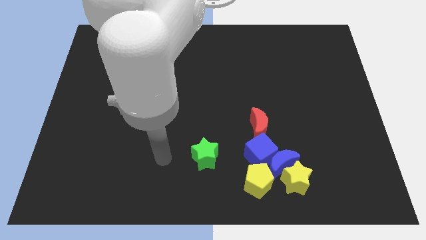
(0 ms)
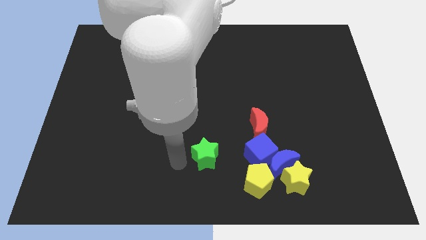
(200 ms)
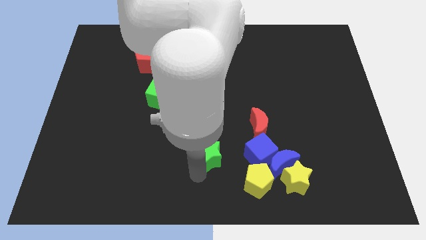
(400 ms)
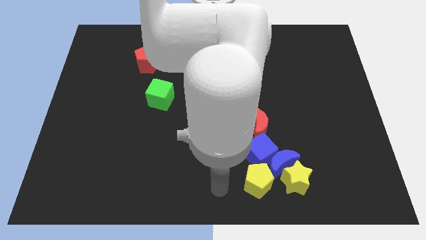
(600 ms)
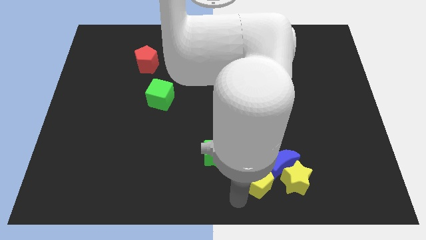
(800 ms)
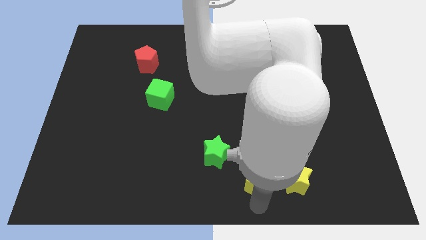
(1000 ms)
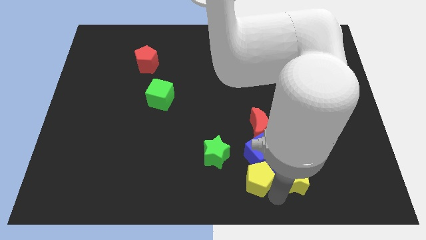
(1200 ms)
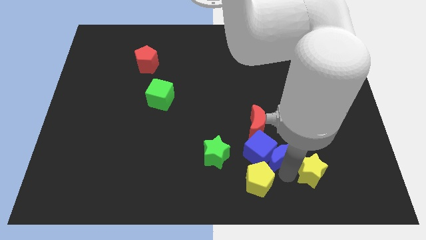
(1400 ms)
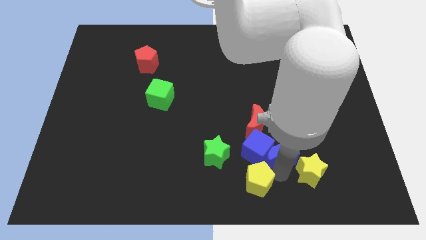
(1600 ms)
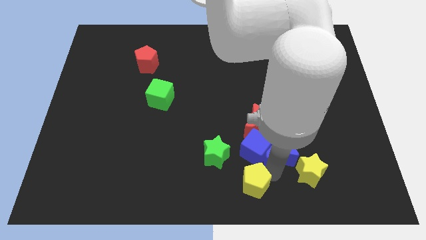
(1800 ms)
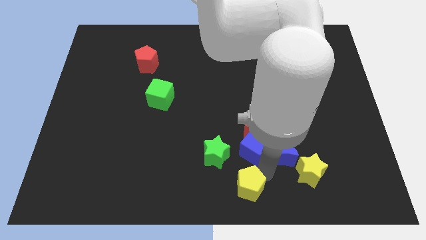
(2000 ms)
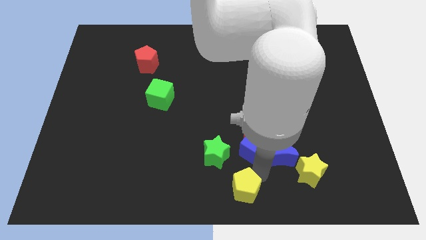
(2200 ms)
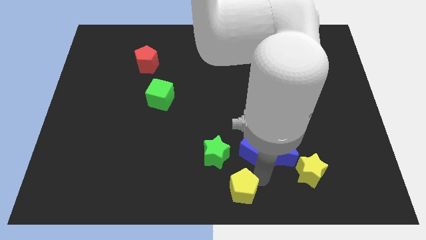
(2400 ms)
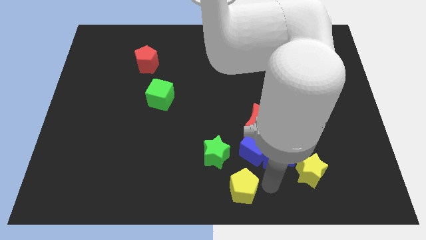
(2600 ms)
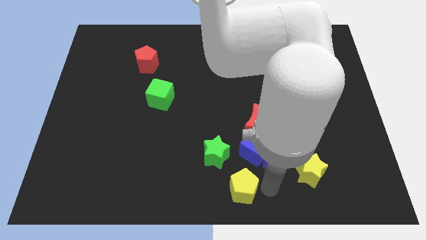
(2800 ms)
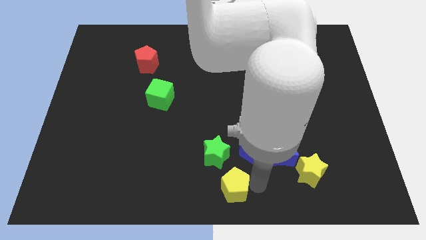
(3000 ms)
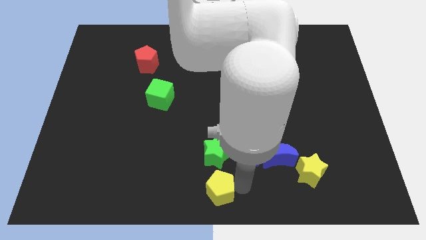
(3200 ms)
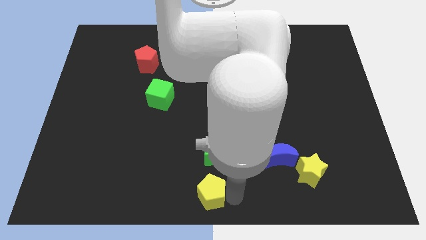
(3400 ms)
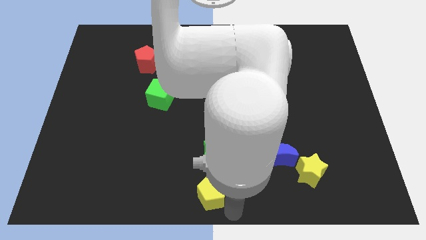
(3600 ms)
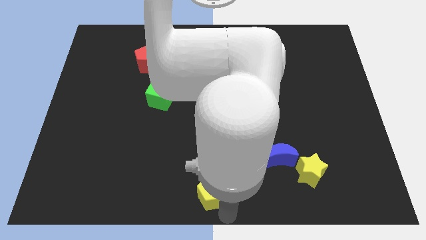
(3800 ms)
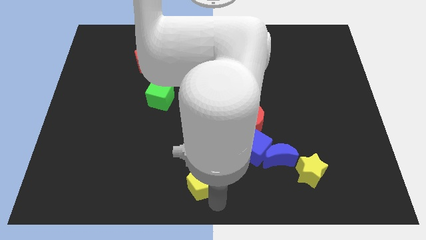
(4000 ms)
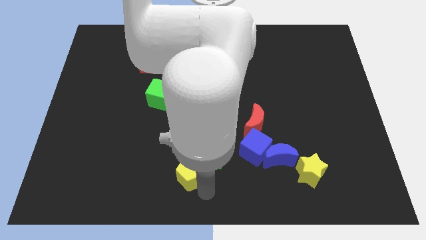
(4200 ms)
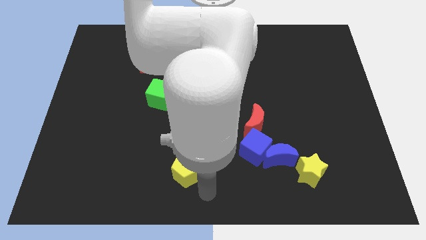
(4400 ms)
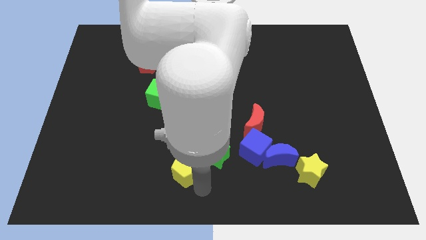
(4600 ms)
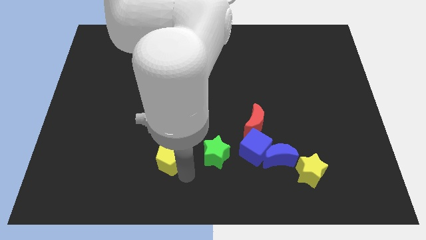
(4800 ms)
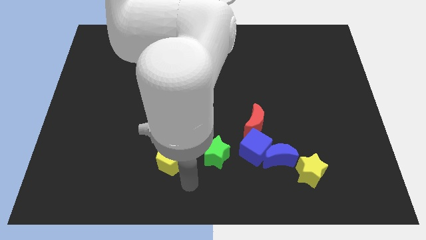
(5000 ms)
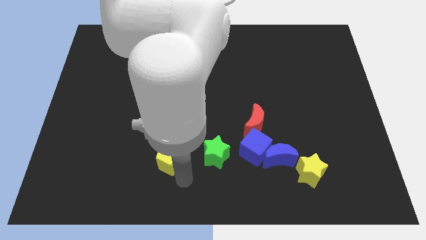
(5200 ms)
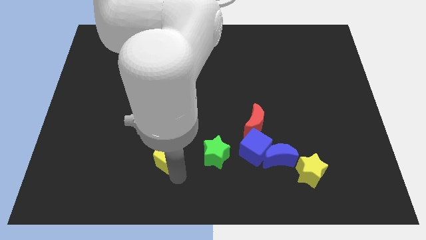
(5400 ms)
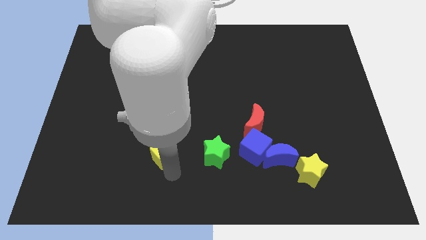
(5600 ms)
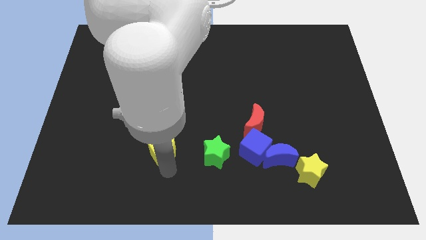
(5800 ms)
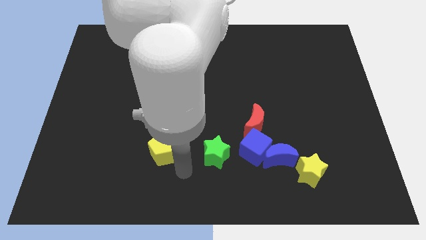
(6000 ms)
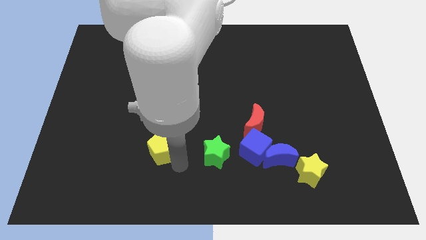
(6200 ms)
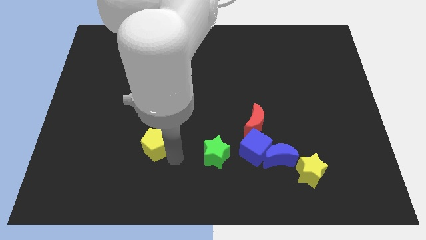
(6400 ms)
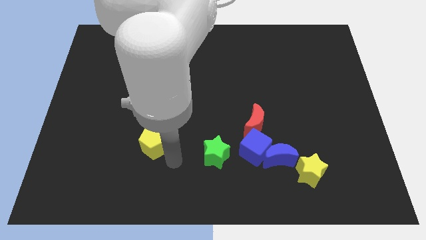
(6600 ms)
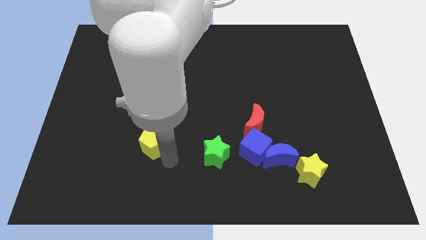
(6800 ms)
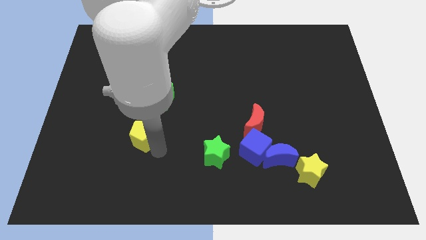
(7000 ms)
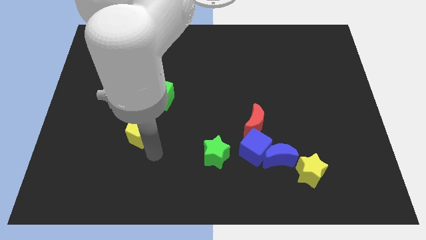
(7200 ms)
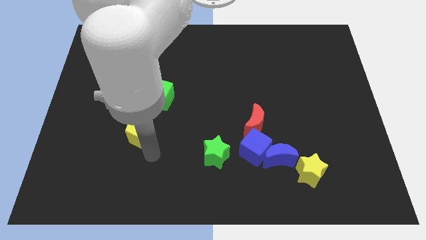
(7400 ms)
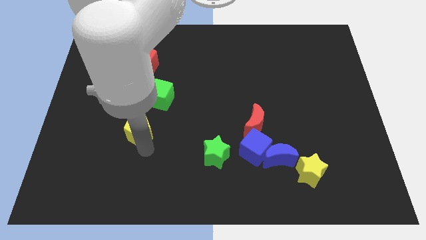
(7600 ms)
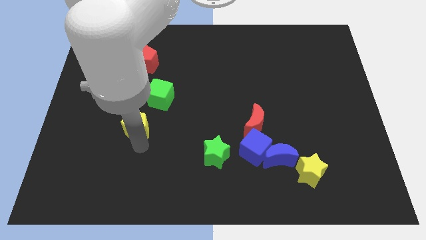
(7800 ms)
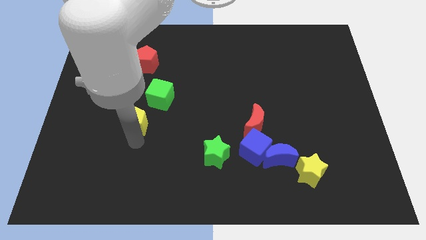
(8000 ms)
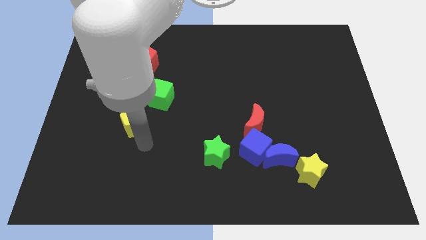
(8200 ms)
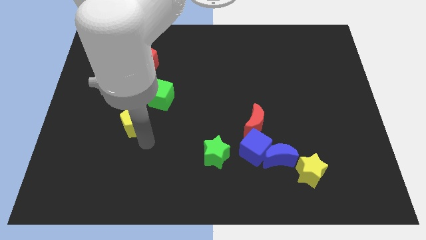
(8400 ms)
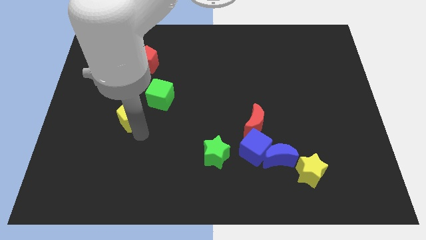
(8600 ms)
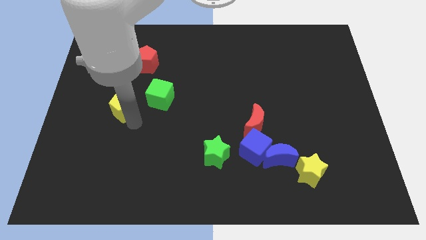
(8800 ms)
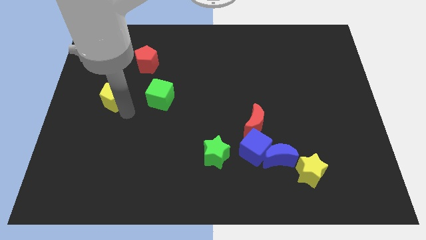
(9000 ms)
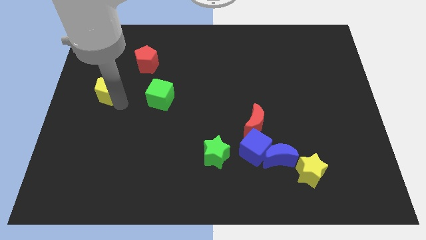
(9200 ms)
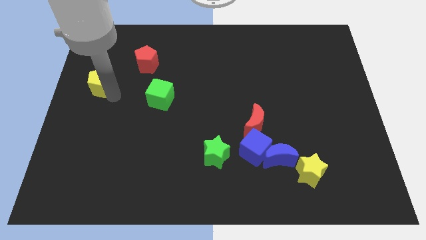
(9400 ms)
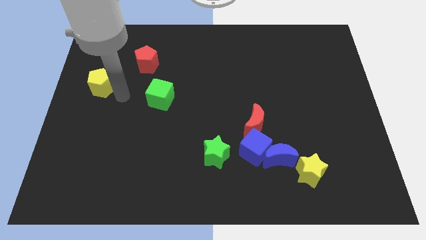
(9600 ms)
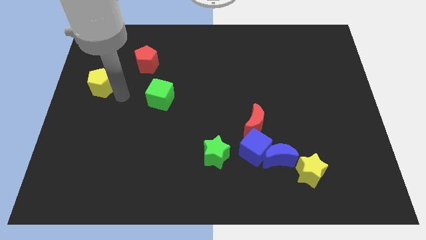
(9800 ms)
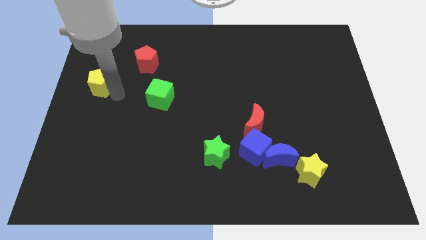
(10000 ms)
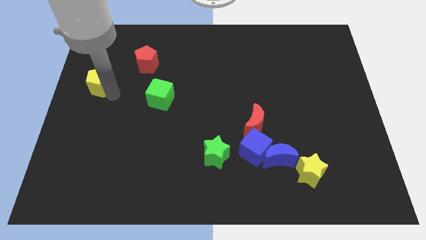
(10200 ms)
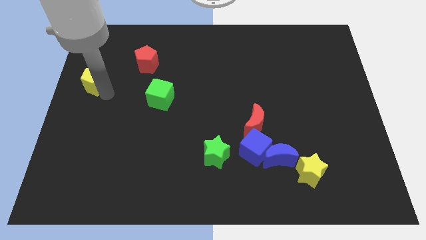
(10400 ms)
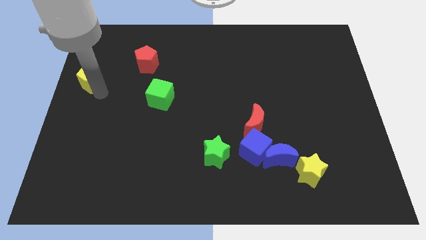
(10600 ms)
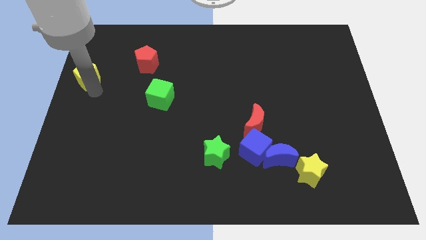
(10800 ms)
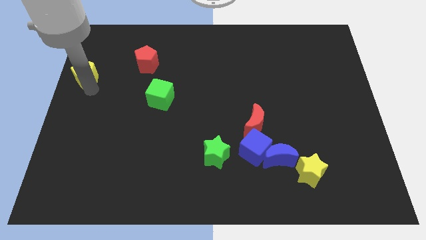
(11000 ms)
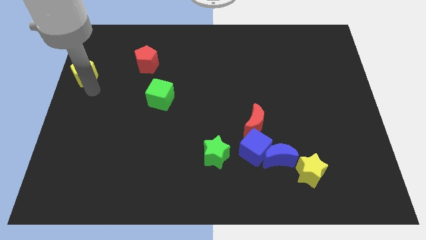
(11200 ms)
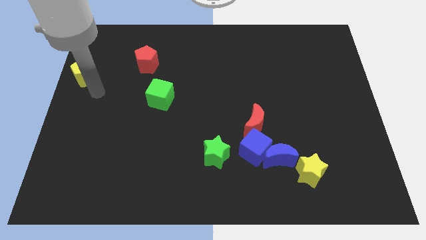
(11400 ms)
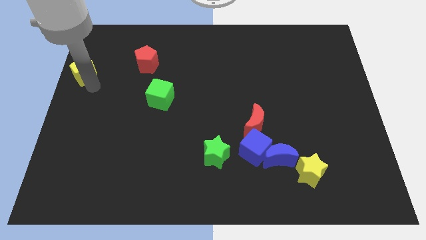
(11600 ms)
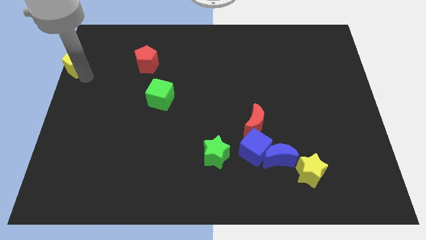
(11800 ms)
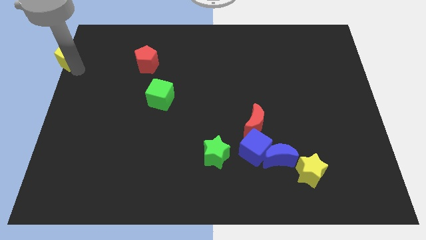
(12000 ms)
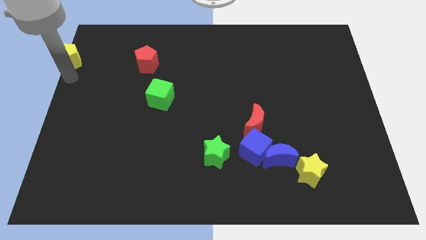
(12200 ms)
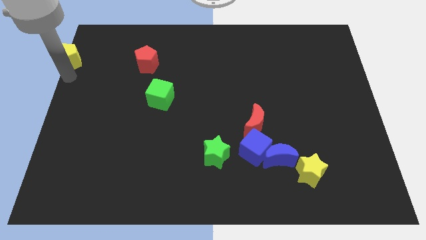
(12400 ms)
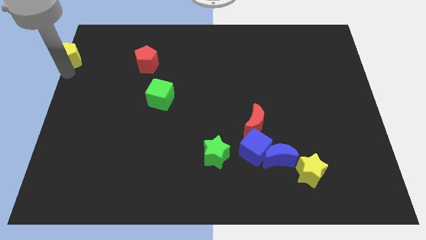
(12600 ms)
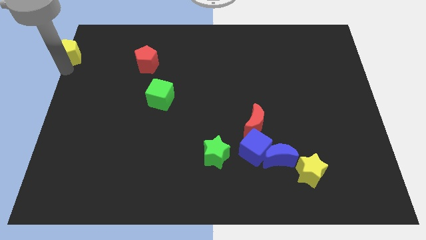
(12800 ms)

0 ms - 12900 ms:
push the yellow pentagon to the top left of the board

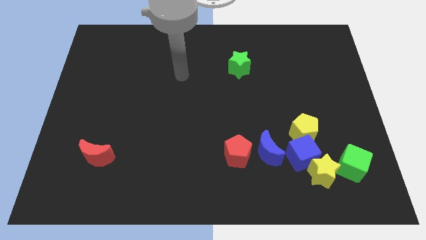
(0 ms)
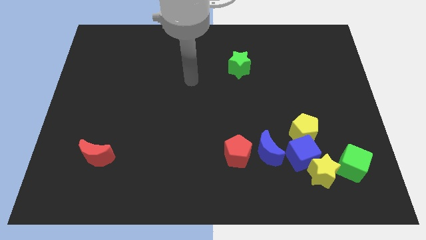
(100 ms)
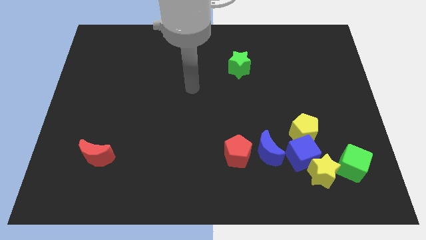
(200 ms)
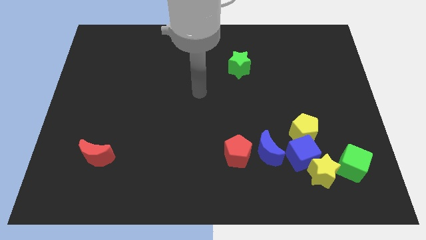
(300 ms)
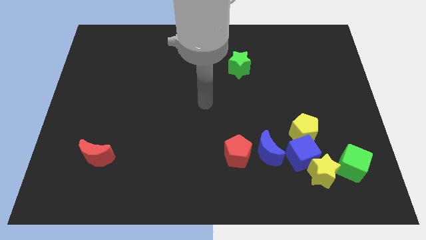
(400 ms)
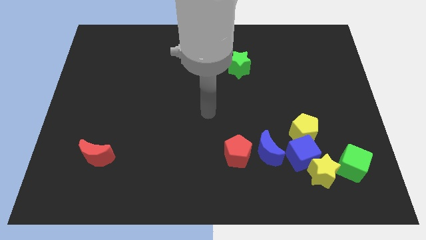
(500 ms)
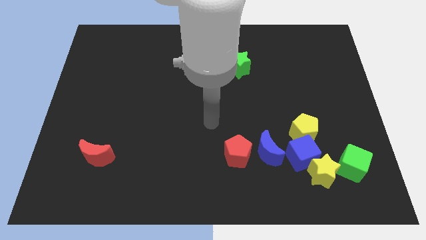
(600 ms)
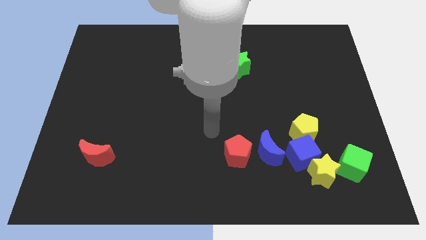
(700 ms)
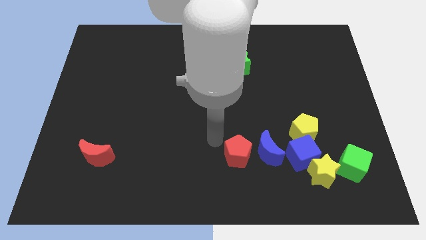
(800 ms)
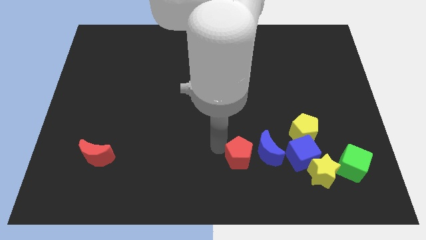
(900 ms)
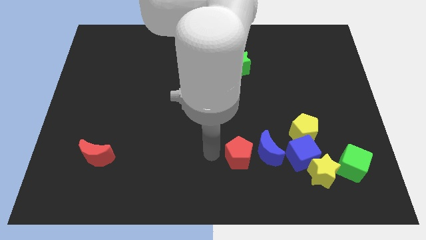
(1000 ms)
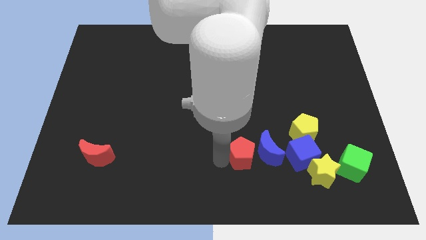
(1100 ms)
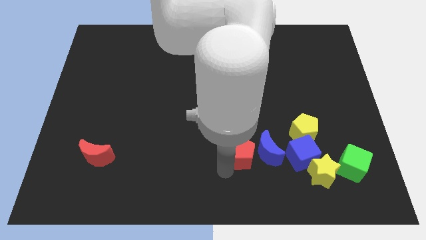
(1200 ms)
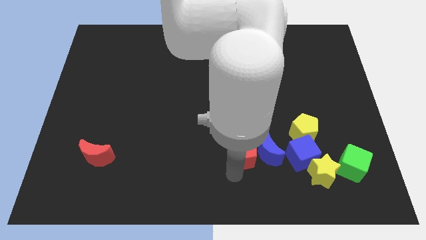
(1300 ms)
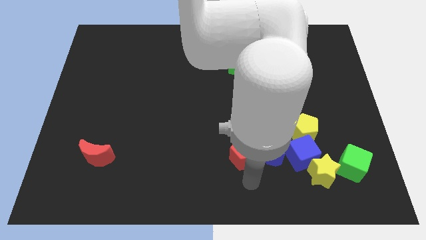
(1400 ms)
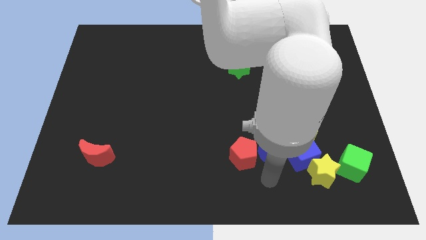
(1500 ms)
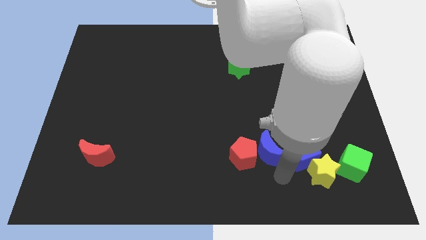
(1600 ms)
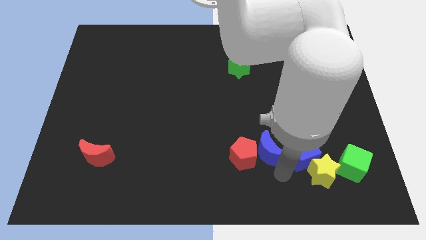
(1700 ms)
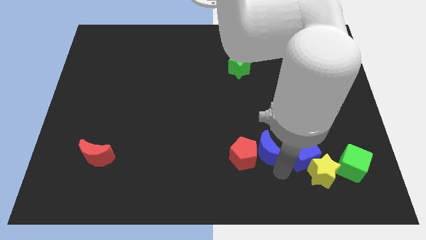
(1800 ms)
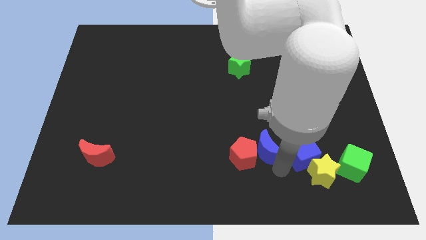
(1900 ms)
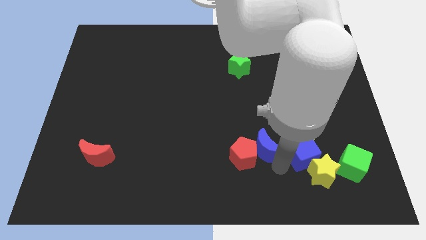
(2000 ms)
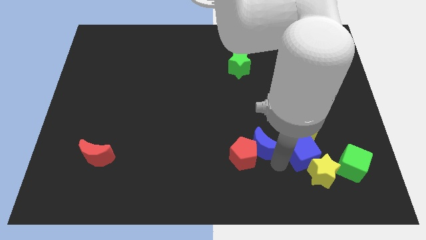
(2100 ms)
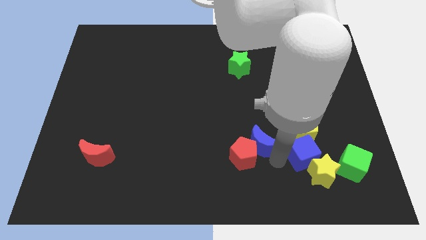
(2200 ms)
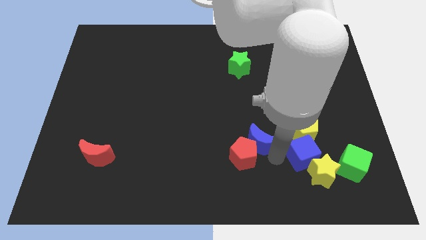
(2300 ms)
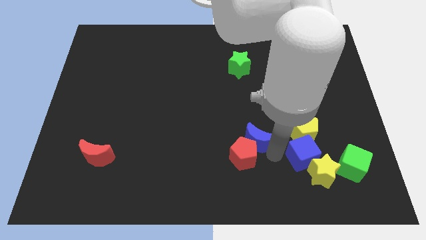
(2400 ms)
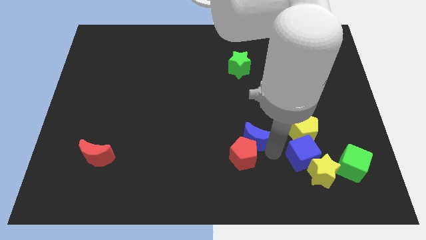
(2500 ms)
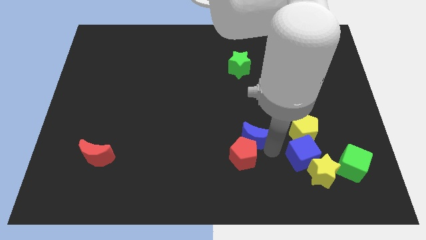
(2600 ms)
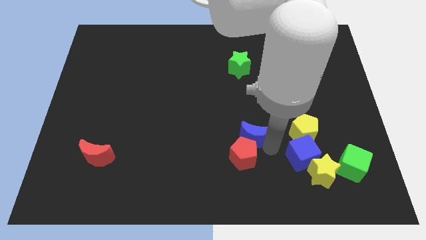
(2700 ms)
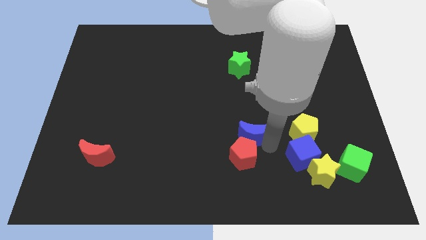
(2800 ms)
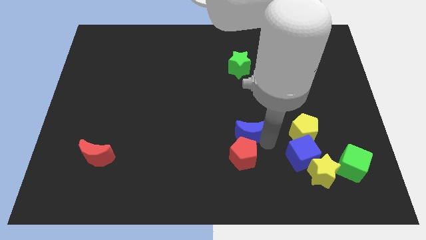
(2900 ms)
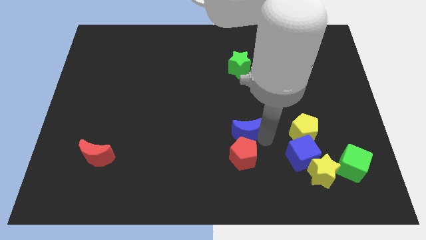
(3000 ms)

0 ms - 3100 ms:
put the blue moon to the center
